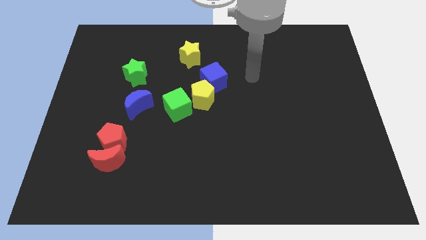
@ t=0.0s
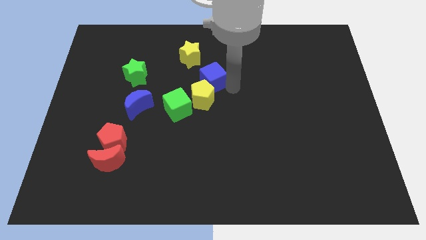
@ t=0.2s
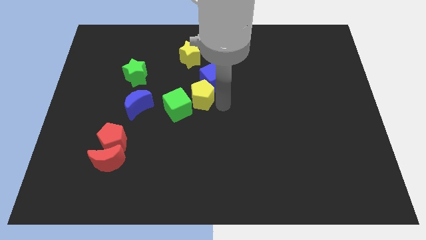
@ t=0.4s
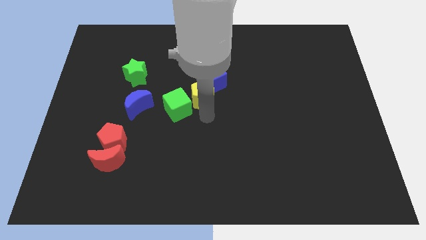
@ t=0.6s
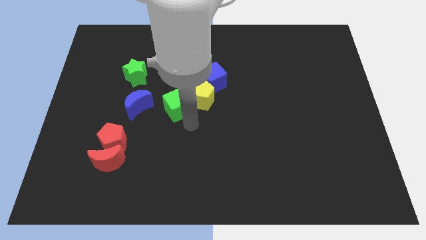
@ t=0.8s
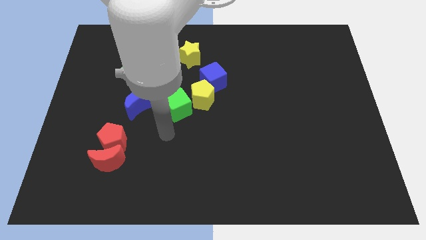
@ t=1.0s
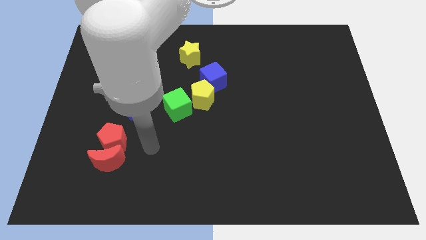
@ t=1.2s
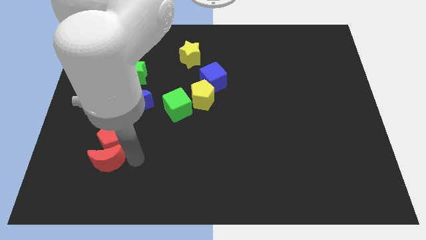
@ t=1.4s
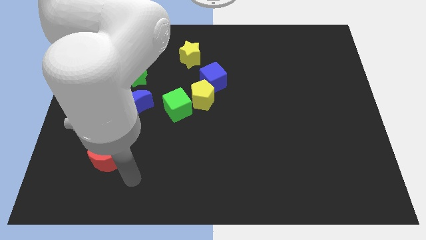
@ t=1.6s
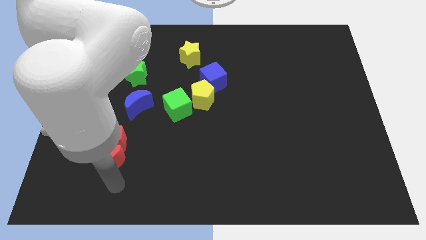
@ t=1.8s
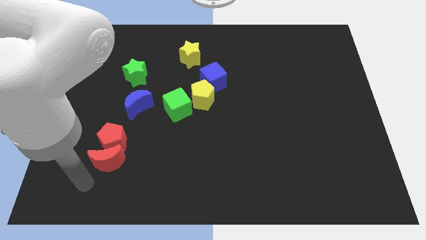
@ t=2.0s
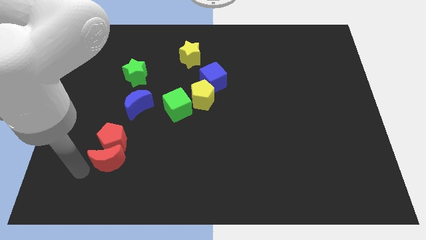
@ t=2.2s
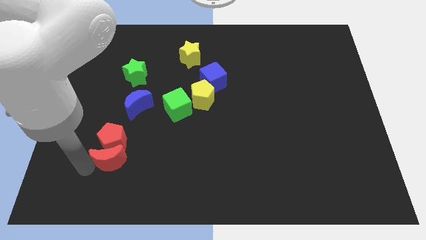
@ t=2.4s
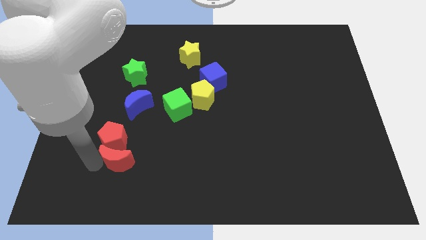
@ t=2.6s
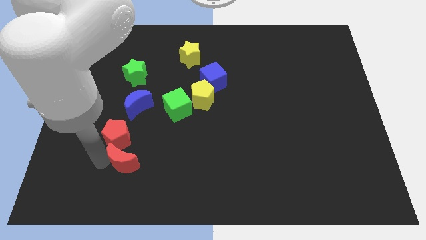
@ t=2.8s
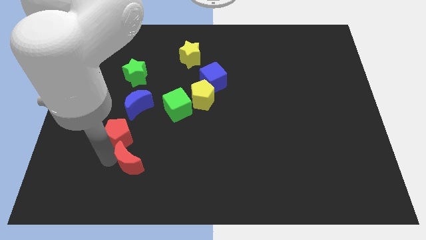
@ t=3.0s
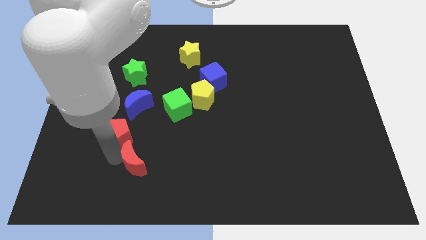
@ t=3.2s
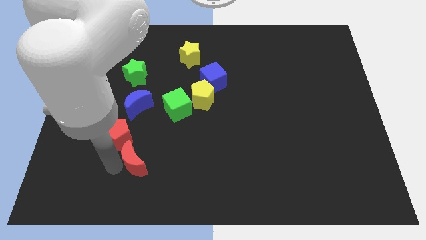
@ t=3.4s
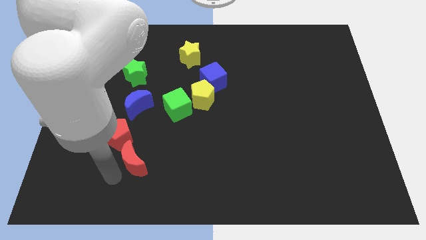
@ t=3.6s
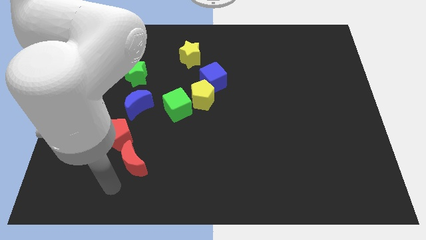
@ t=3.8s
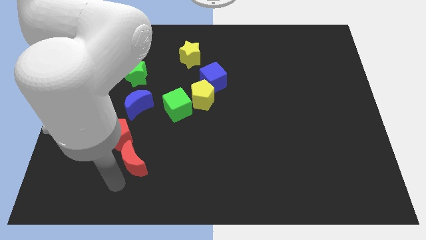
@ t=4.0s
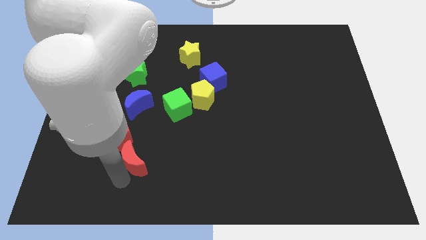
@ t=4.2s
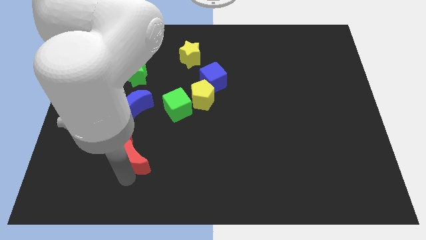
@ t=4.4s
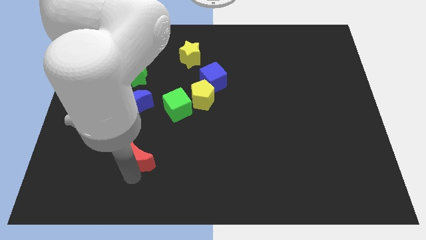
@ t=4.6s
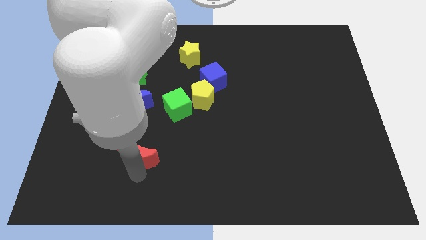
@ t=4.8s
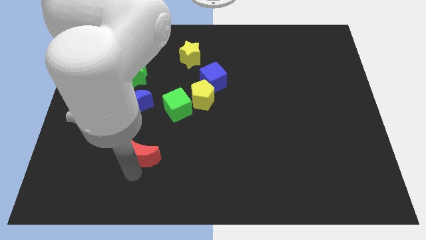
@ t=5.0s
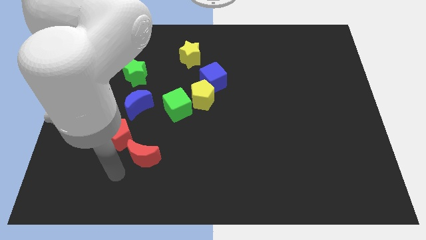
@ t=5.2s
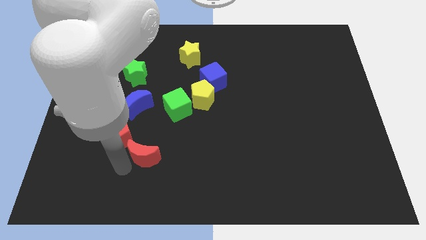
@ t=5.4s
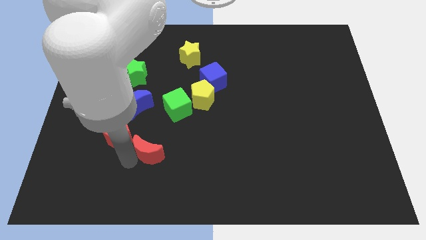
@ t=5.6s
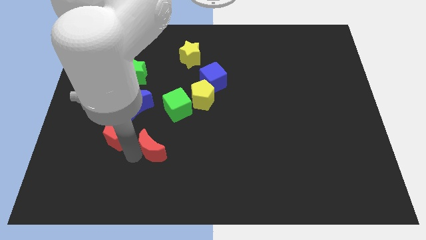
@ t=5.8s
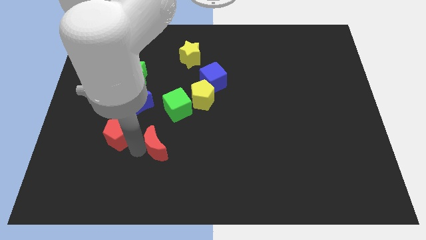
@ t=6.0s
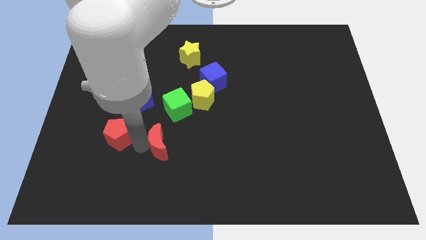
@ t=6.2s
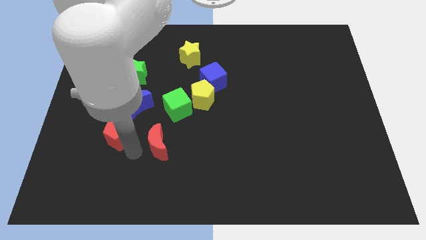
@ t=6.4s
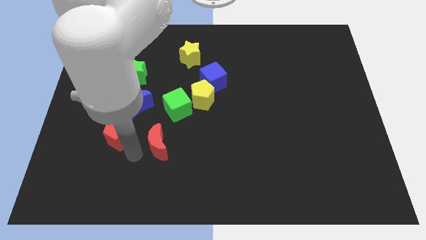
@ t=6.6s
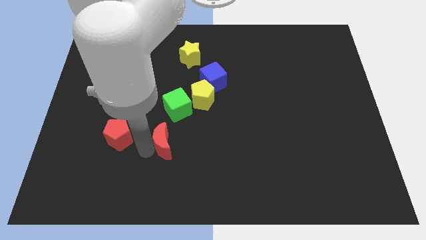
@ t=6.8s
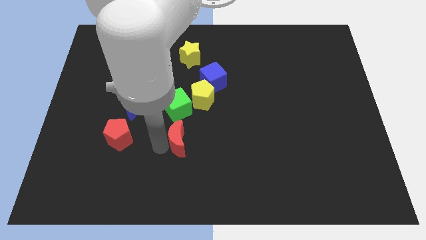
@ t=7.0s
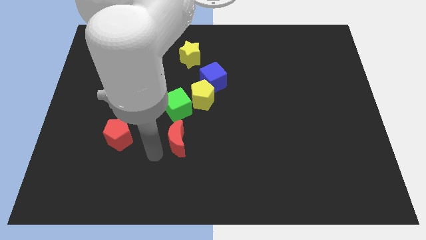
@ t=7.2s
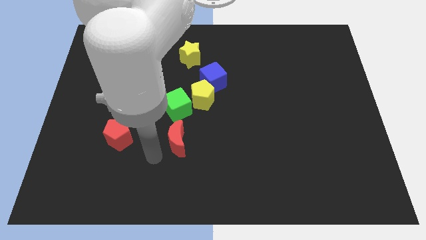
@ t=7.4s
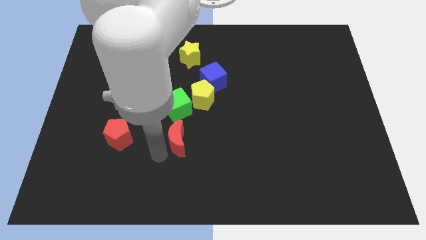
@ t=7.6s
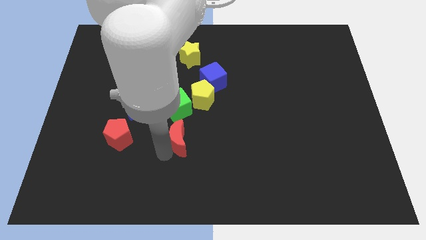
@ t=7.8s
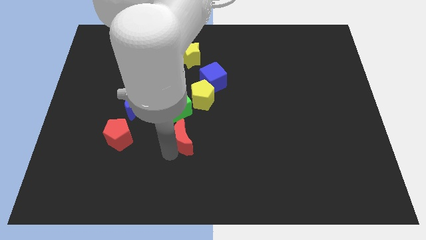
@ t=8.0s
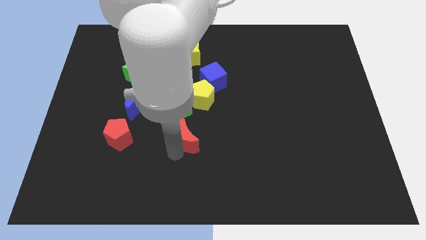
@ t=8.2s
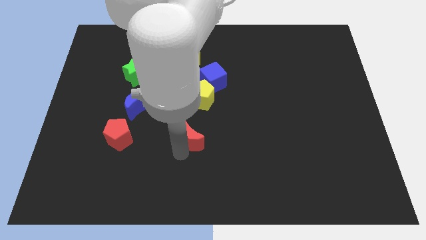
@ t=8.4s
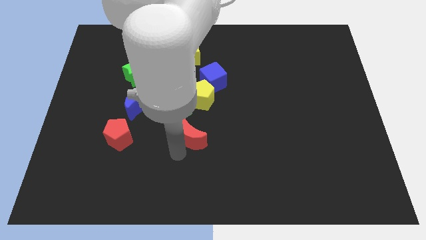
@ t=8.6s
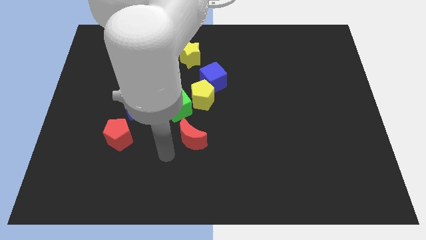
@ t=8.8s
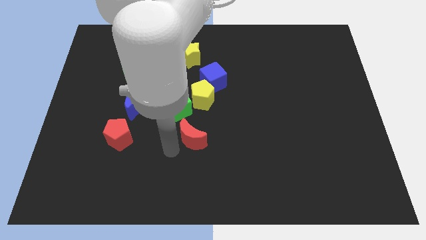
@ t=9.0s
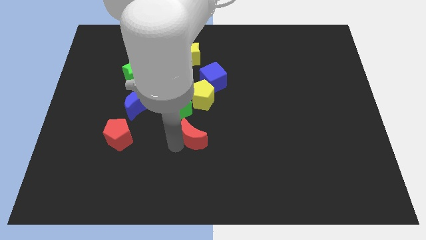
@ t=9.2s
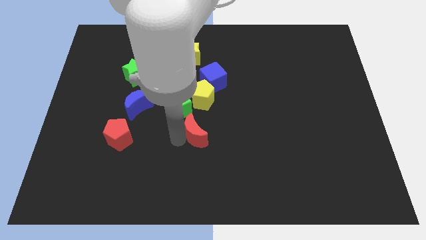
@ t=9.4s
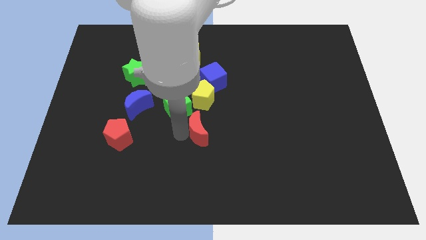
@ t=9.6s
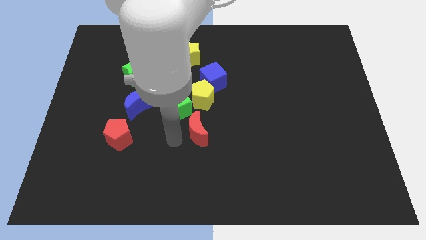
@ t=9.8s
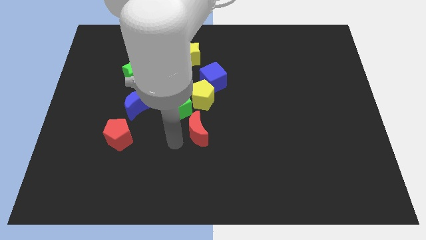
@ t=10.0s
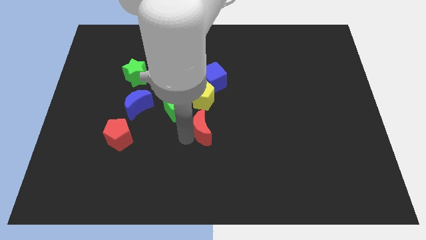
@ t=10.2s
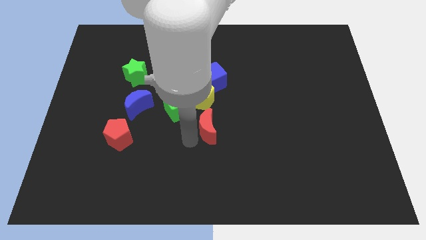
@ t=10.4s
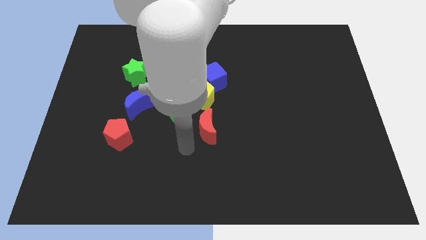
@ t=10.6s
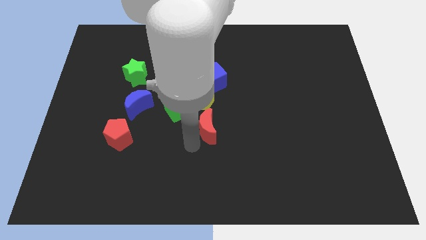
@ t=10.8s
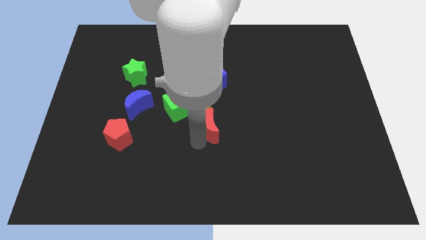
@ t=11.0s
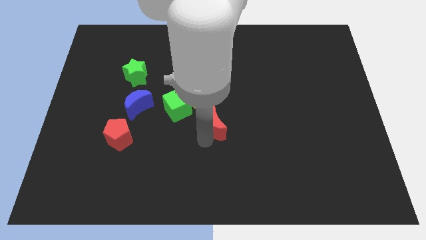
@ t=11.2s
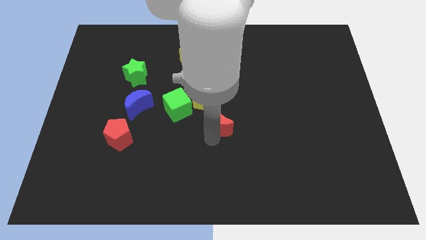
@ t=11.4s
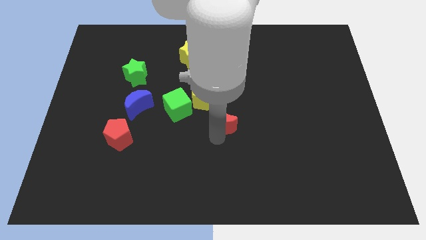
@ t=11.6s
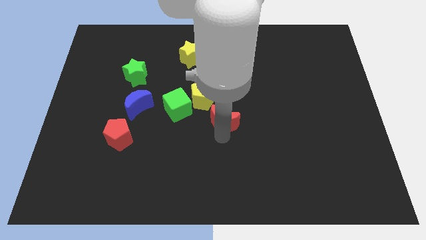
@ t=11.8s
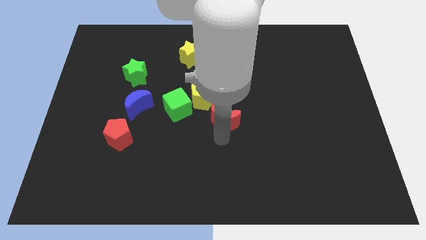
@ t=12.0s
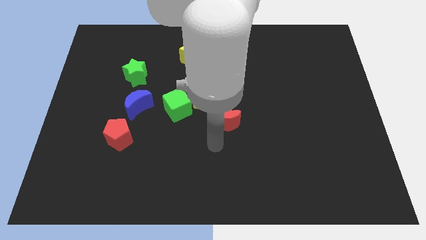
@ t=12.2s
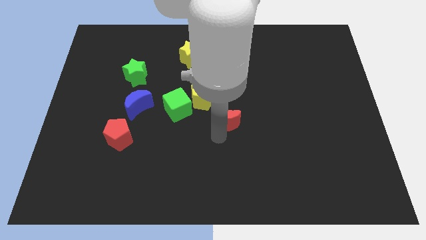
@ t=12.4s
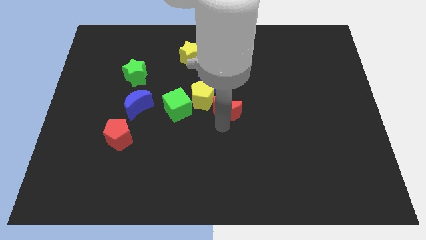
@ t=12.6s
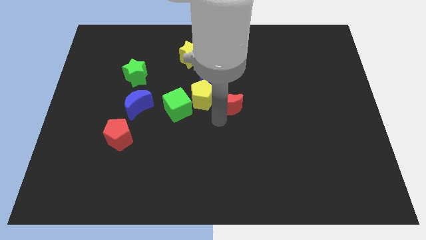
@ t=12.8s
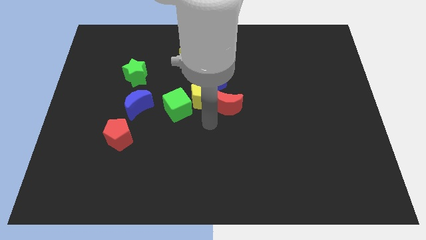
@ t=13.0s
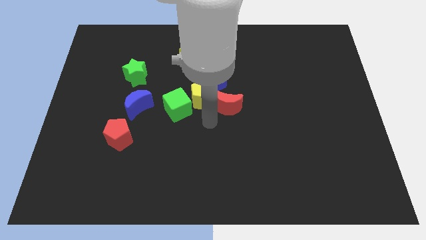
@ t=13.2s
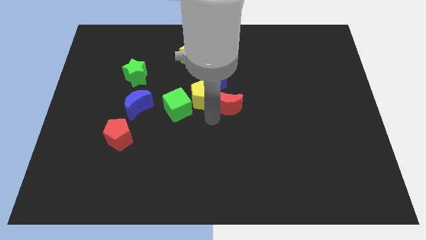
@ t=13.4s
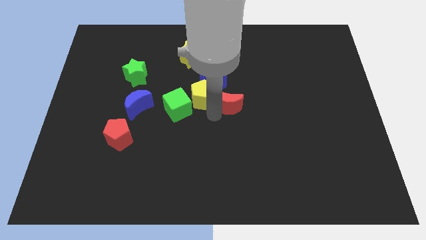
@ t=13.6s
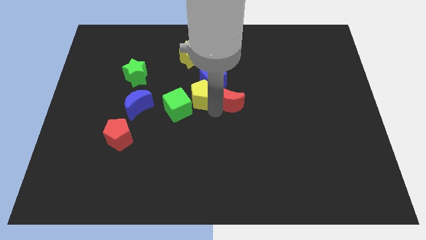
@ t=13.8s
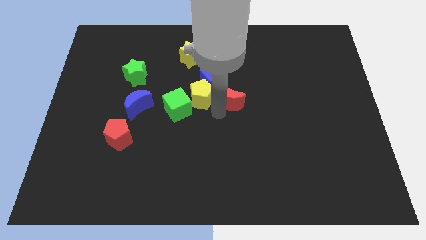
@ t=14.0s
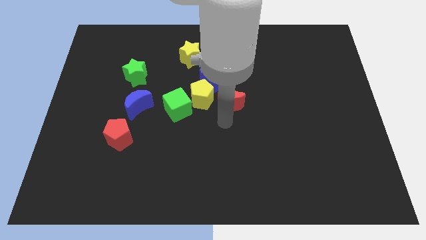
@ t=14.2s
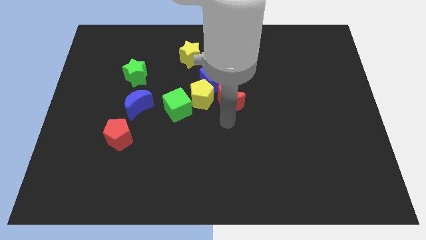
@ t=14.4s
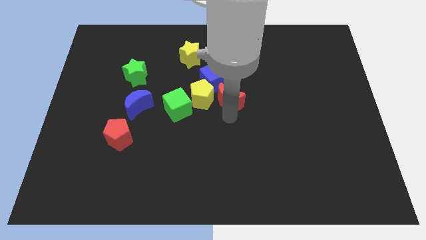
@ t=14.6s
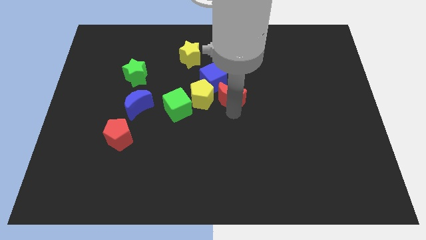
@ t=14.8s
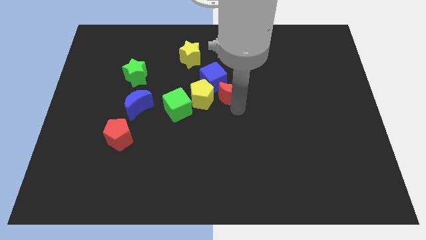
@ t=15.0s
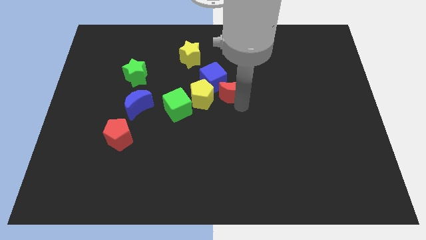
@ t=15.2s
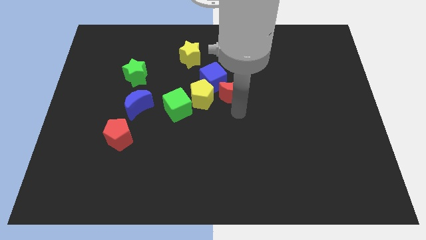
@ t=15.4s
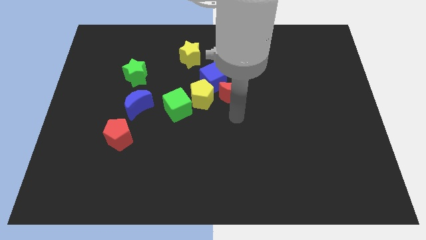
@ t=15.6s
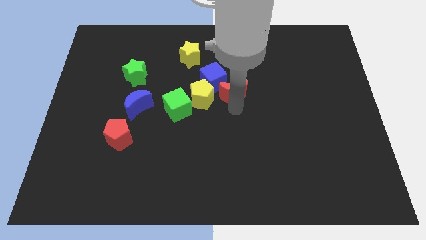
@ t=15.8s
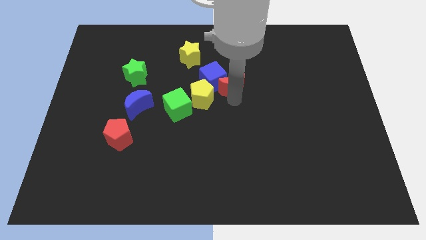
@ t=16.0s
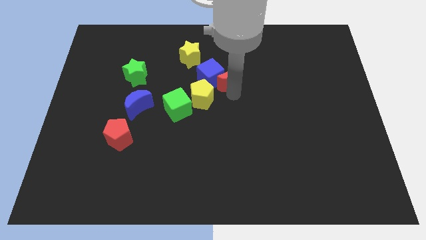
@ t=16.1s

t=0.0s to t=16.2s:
put the red moon to the top right side of the blue cube
